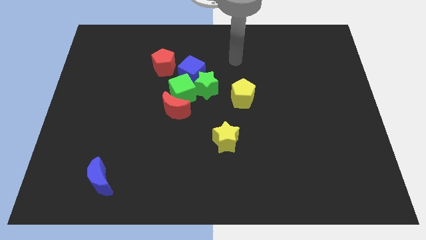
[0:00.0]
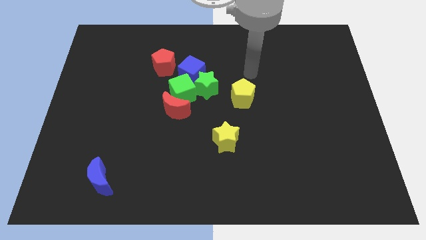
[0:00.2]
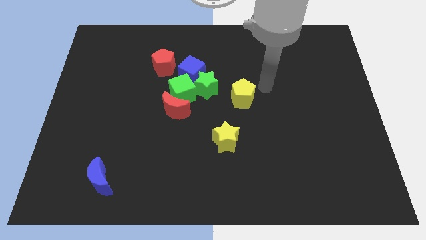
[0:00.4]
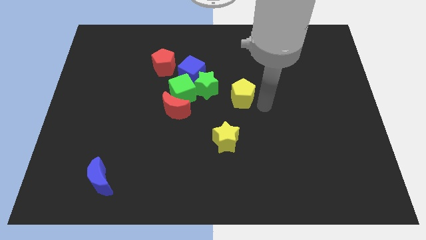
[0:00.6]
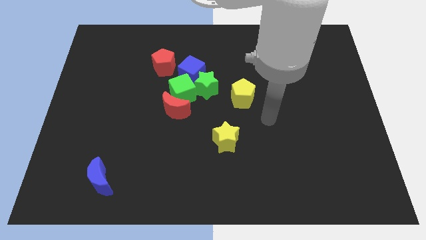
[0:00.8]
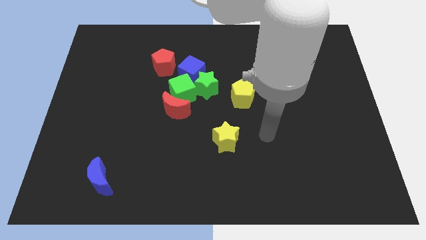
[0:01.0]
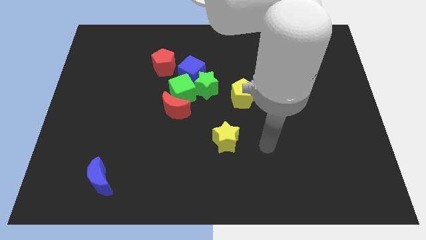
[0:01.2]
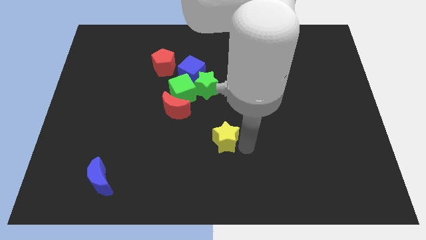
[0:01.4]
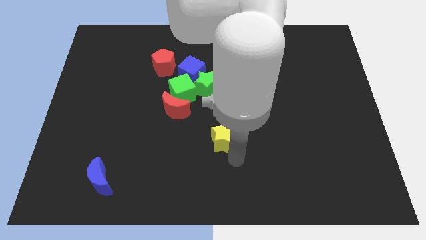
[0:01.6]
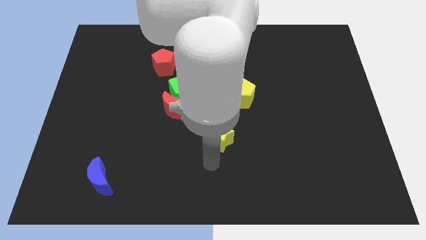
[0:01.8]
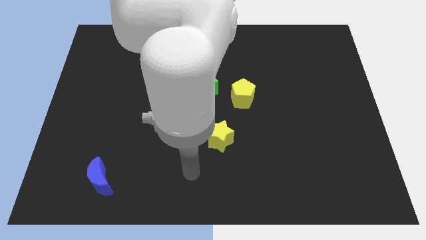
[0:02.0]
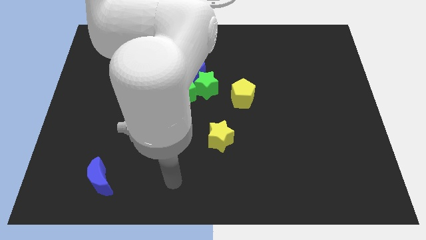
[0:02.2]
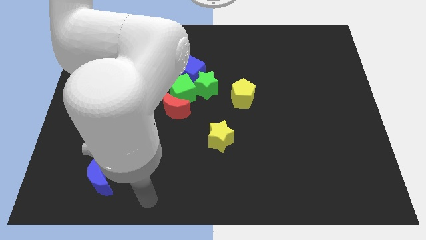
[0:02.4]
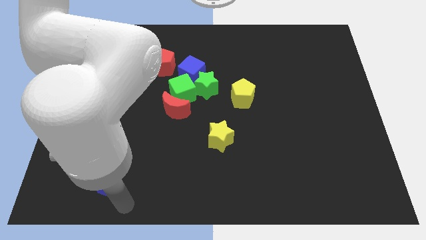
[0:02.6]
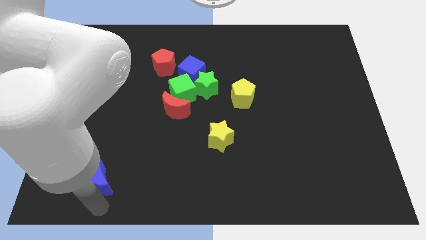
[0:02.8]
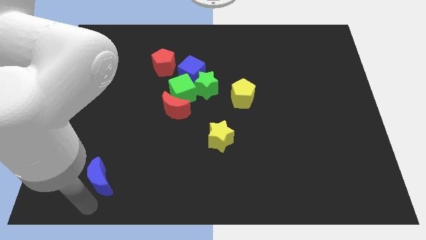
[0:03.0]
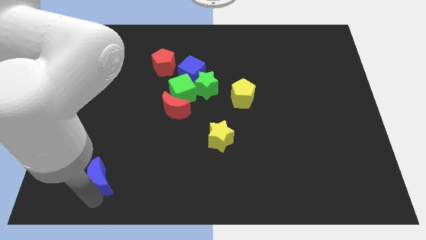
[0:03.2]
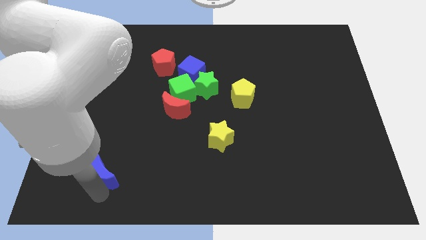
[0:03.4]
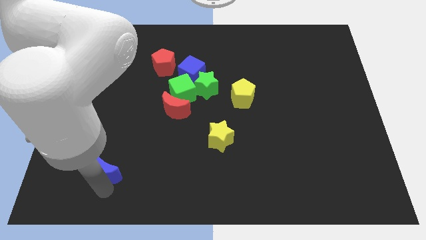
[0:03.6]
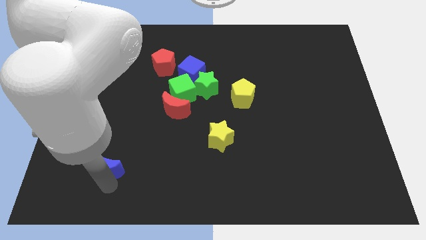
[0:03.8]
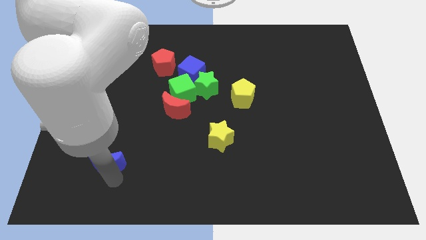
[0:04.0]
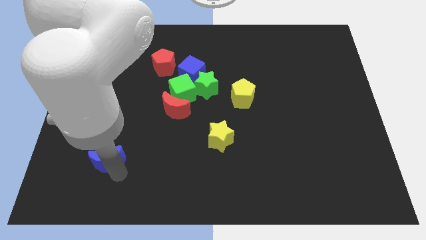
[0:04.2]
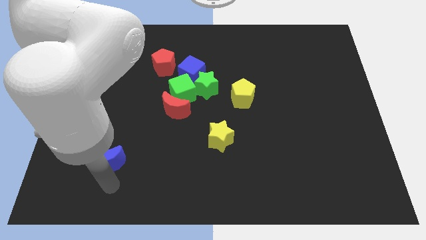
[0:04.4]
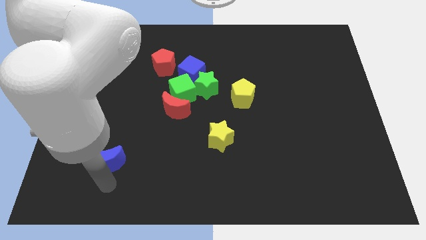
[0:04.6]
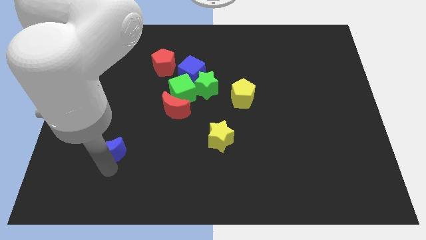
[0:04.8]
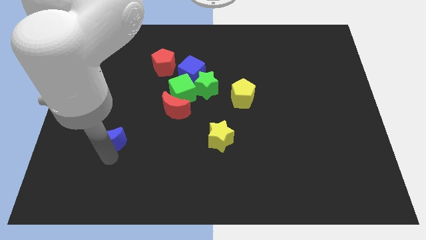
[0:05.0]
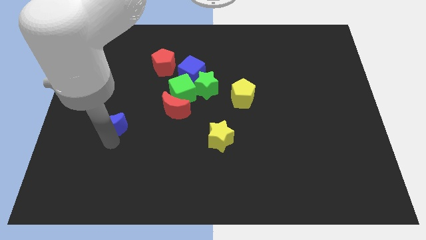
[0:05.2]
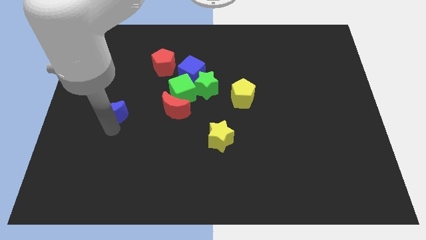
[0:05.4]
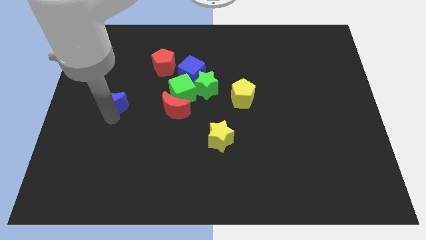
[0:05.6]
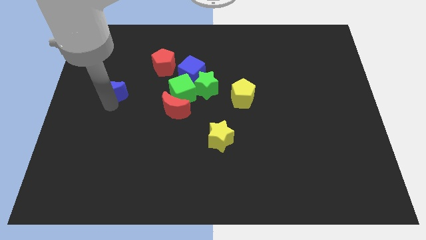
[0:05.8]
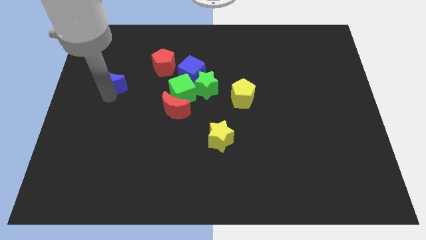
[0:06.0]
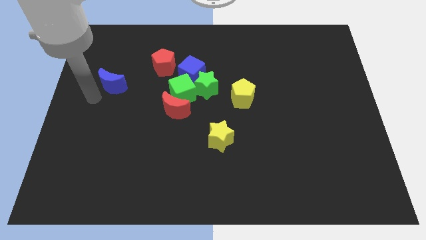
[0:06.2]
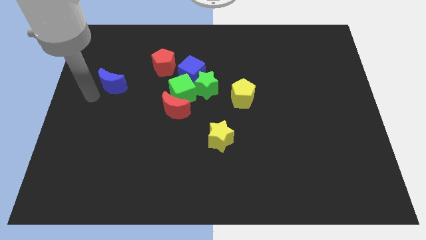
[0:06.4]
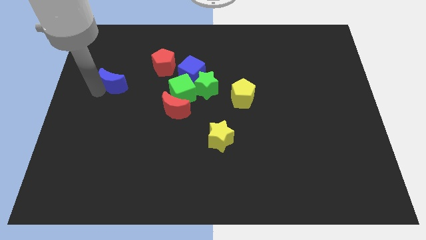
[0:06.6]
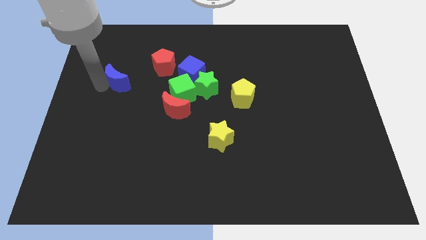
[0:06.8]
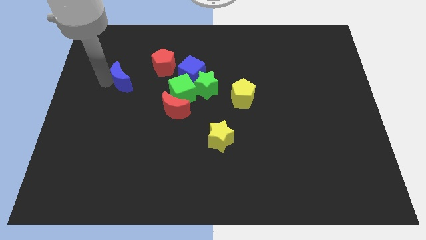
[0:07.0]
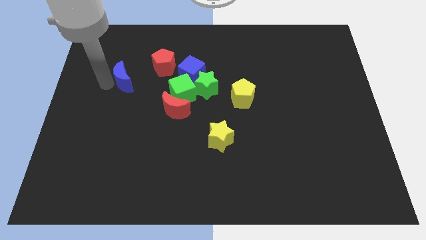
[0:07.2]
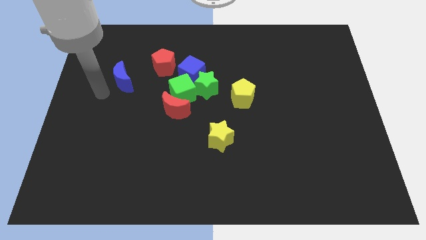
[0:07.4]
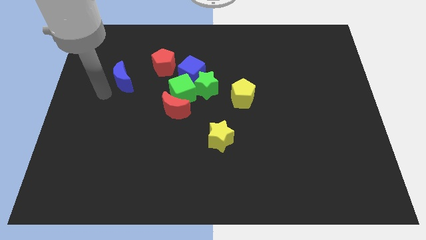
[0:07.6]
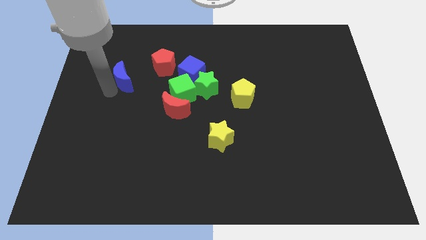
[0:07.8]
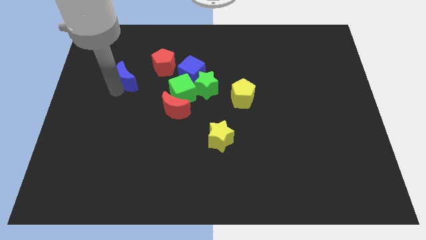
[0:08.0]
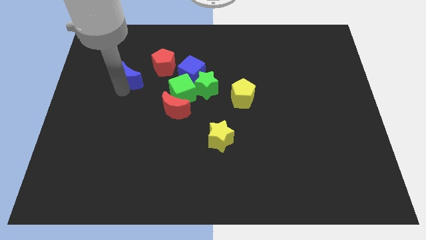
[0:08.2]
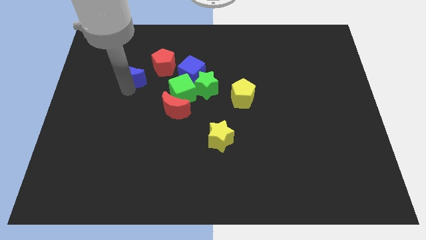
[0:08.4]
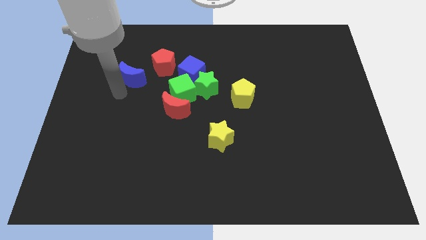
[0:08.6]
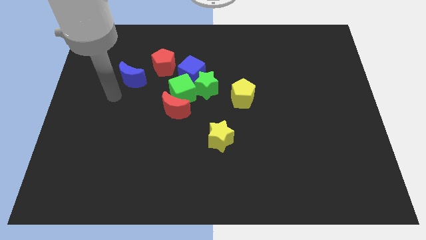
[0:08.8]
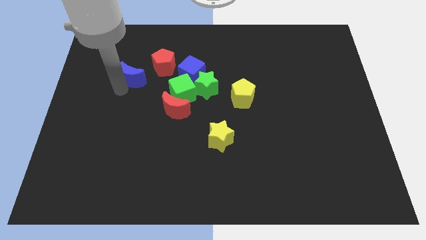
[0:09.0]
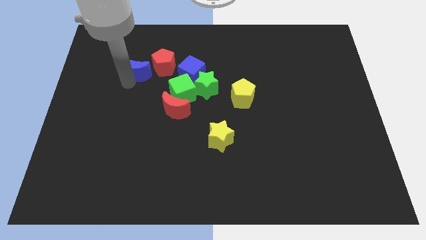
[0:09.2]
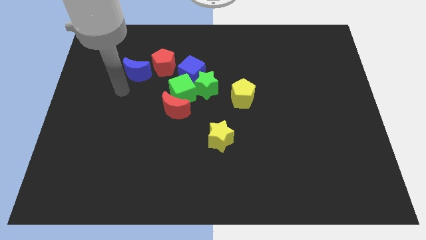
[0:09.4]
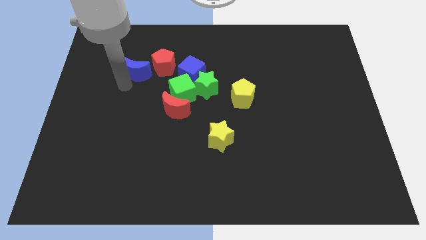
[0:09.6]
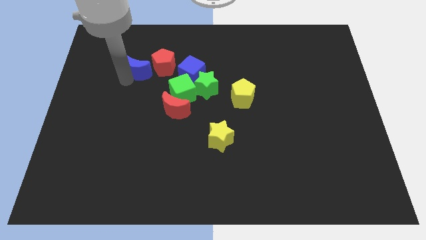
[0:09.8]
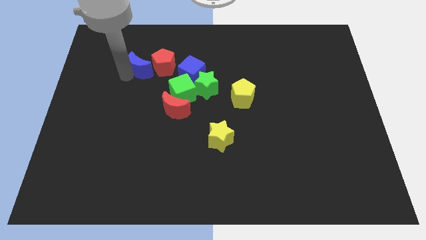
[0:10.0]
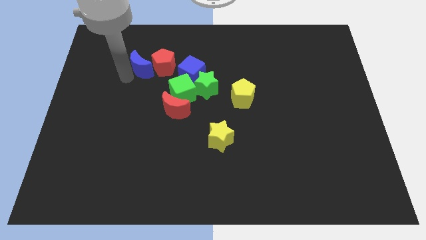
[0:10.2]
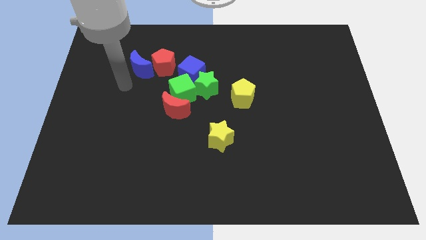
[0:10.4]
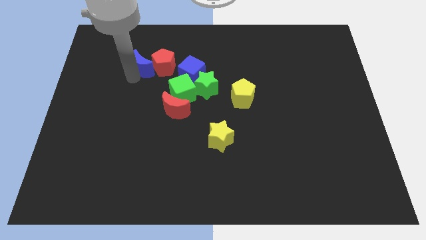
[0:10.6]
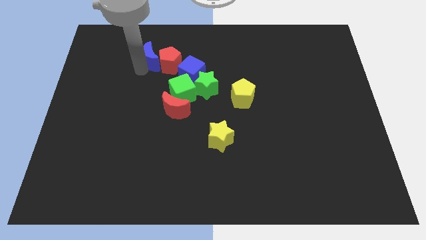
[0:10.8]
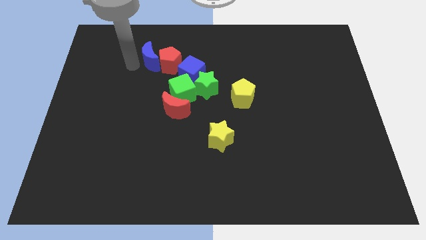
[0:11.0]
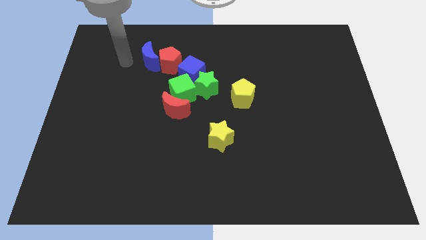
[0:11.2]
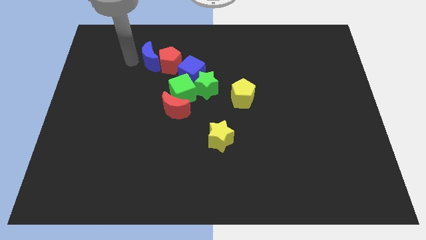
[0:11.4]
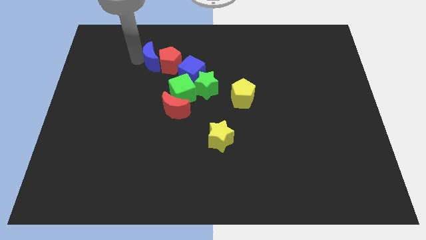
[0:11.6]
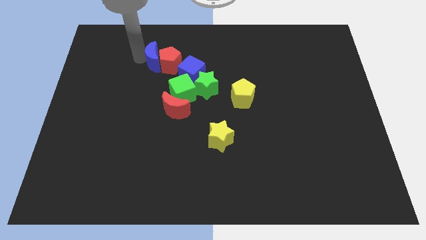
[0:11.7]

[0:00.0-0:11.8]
move the blue moon diagonally up and to the left of the blue cube

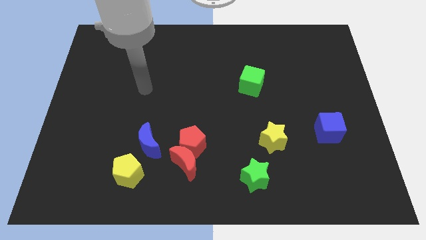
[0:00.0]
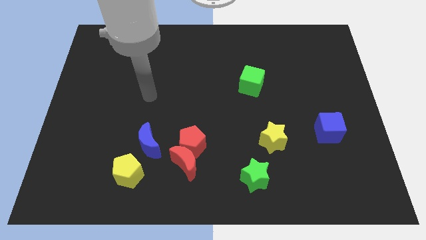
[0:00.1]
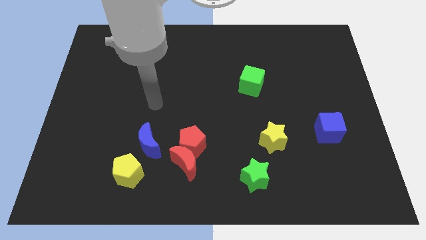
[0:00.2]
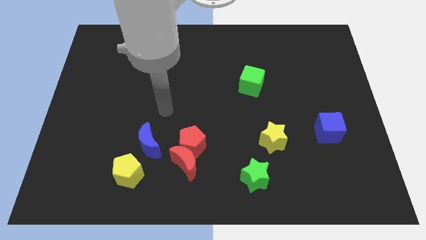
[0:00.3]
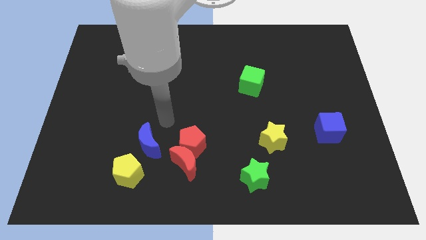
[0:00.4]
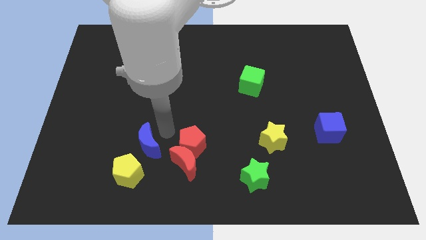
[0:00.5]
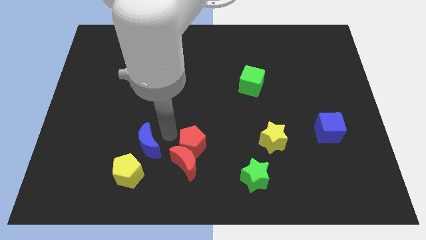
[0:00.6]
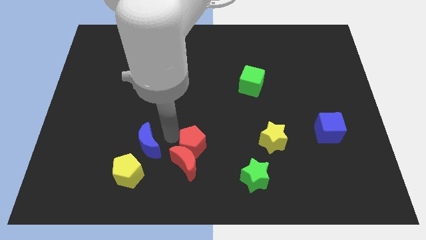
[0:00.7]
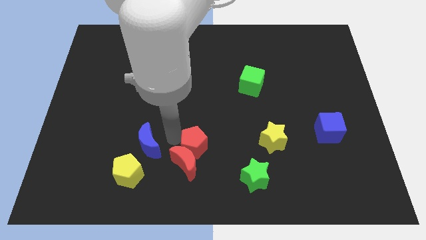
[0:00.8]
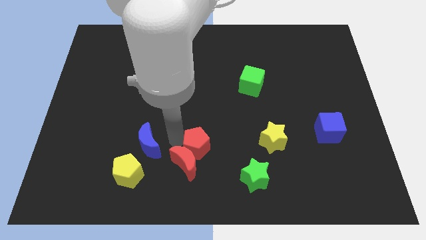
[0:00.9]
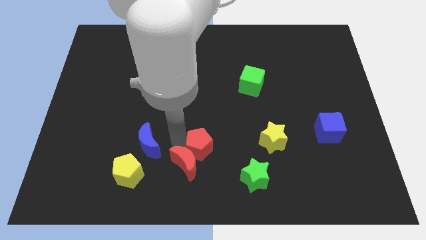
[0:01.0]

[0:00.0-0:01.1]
push the red pentagon just right of the red moon
